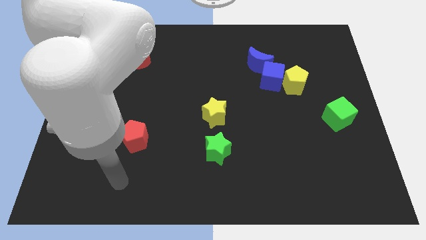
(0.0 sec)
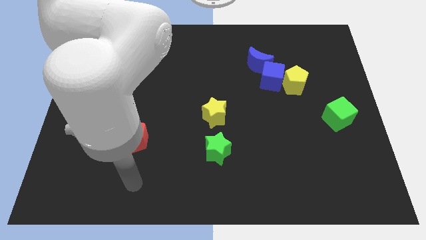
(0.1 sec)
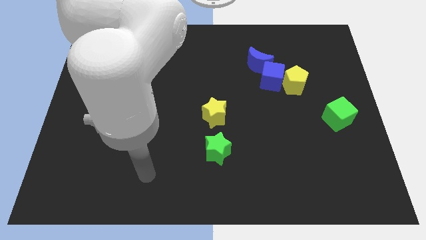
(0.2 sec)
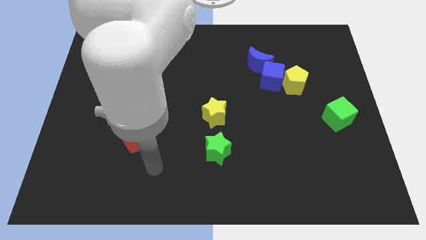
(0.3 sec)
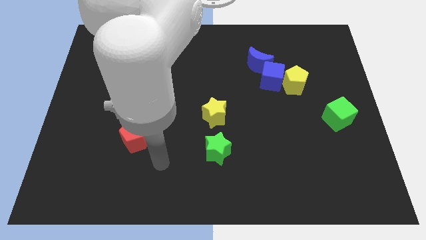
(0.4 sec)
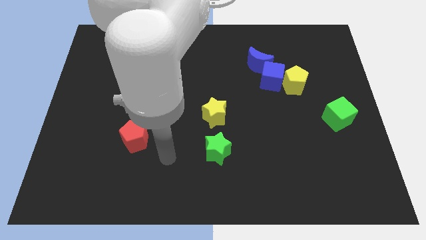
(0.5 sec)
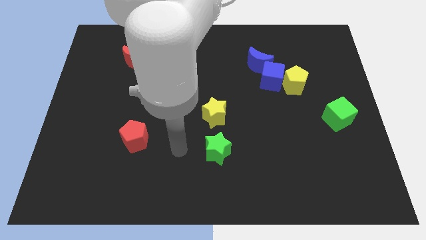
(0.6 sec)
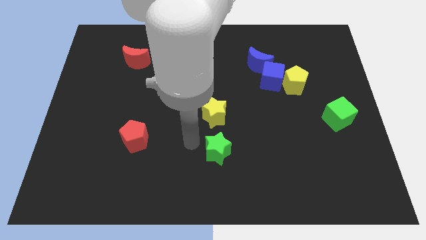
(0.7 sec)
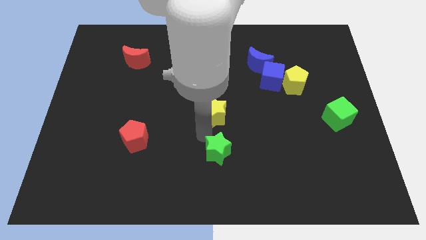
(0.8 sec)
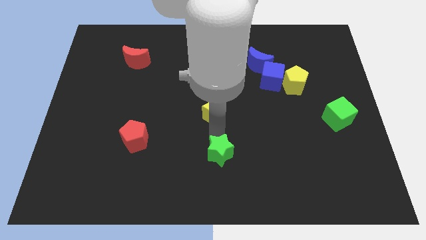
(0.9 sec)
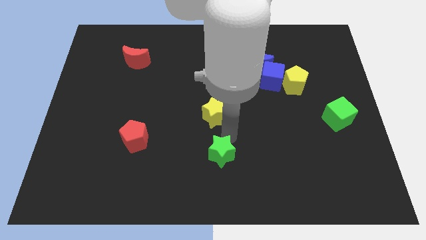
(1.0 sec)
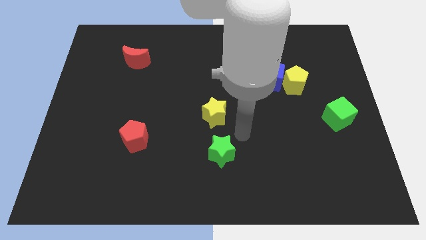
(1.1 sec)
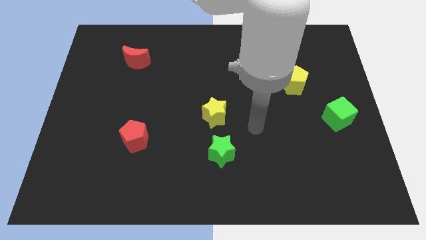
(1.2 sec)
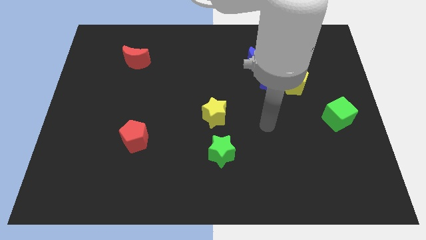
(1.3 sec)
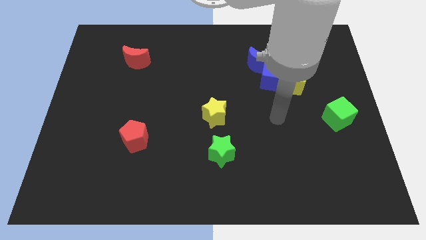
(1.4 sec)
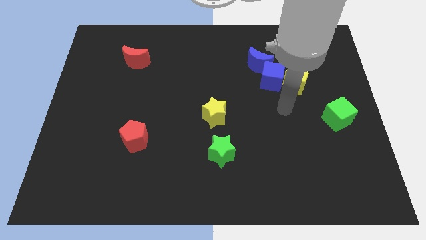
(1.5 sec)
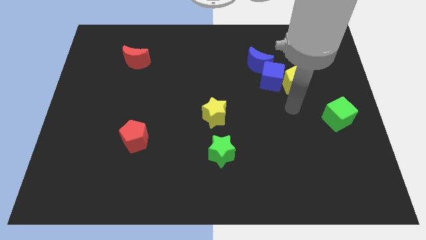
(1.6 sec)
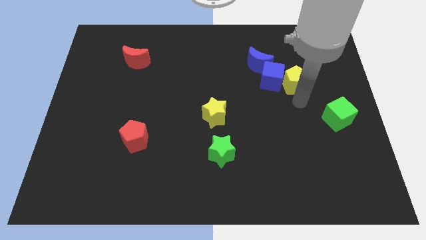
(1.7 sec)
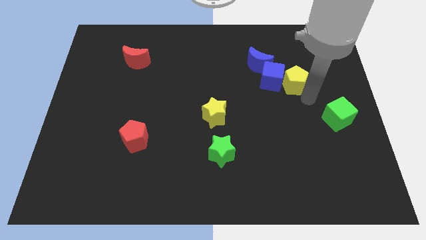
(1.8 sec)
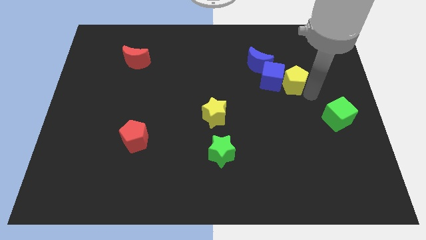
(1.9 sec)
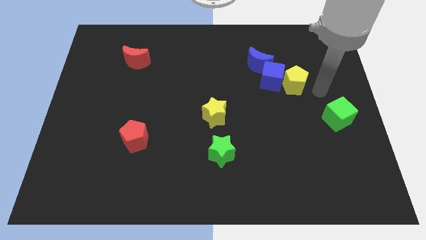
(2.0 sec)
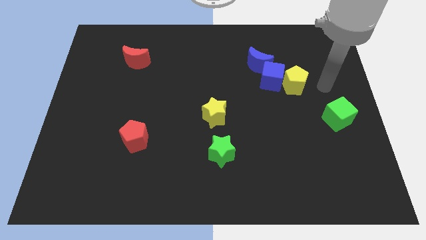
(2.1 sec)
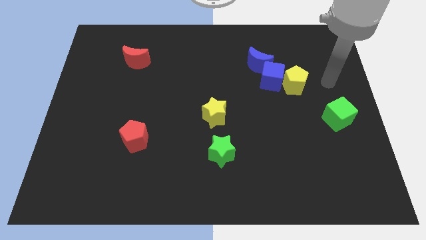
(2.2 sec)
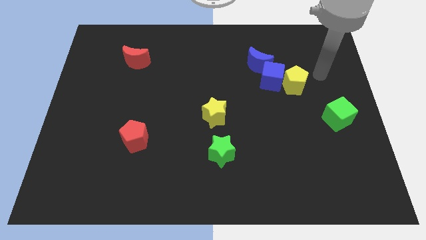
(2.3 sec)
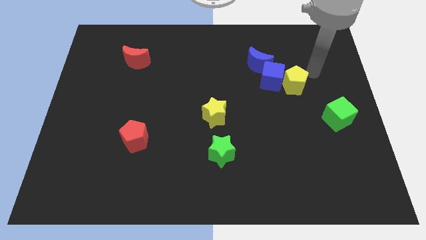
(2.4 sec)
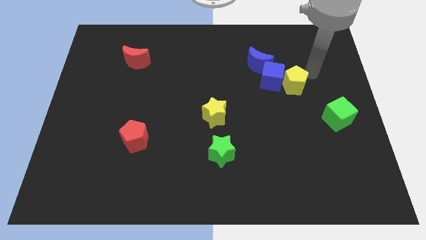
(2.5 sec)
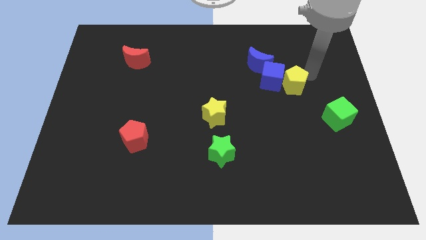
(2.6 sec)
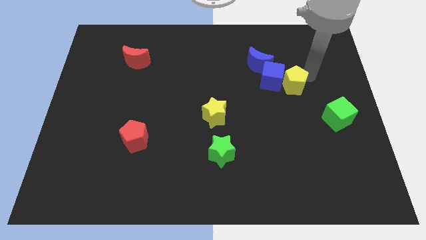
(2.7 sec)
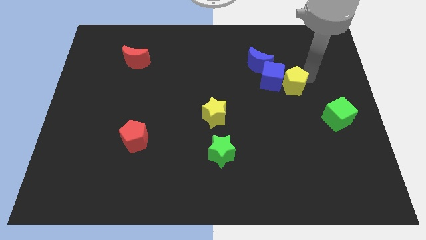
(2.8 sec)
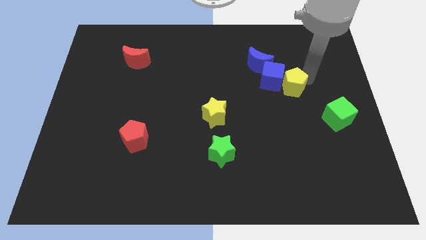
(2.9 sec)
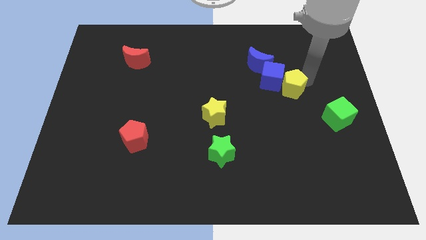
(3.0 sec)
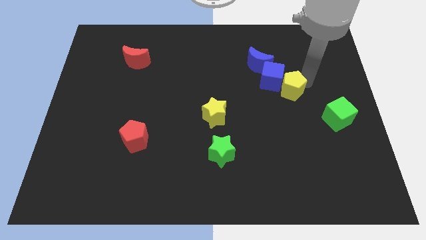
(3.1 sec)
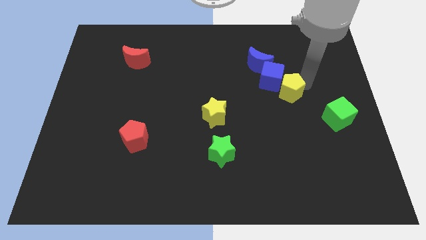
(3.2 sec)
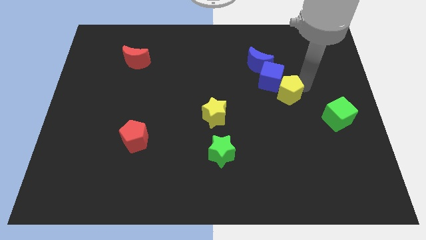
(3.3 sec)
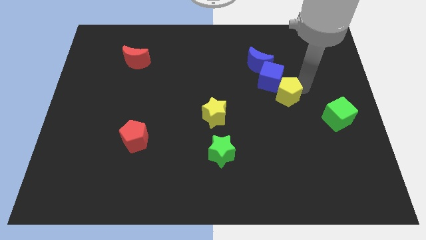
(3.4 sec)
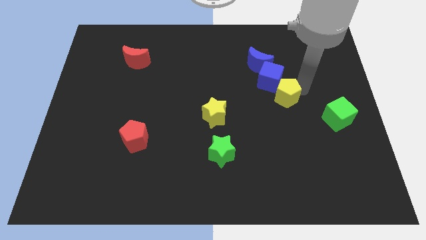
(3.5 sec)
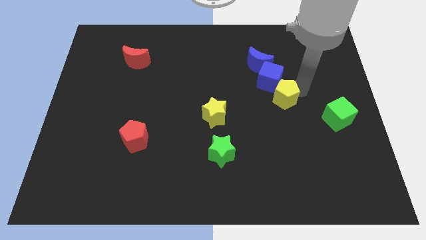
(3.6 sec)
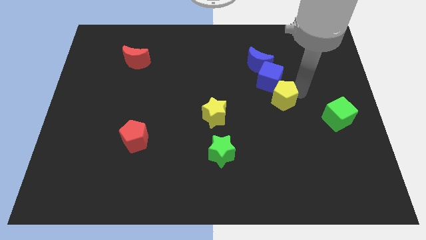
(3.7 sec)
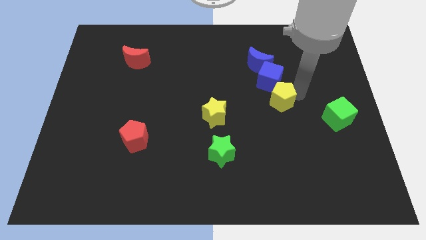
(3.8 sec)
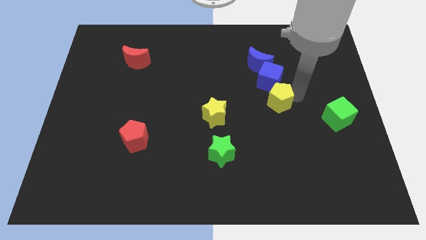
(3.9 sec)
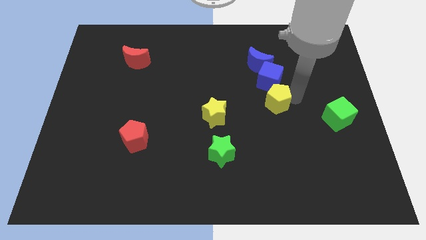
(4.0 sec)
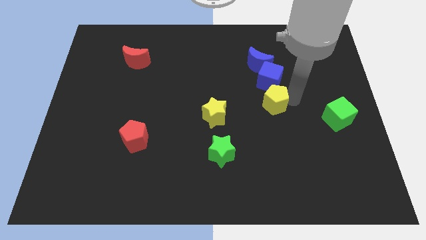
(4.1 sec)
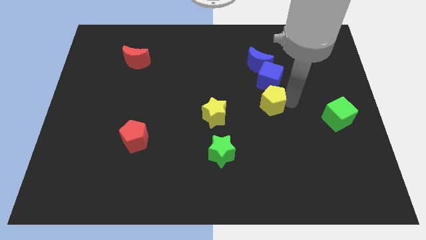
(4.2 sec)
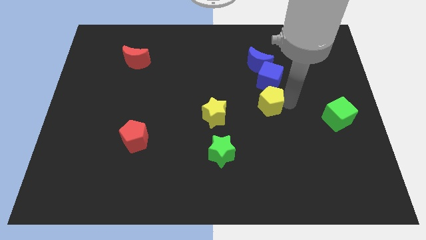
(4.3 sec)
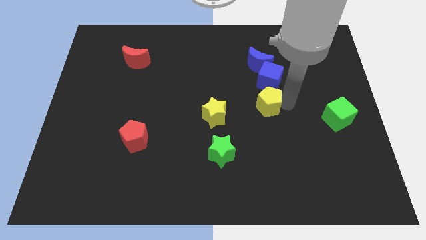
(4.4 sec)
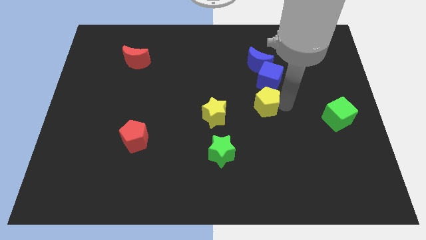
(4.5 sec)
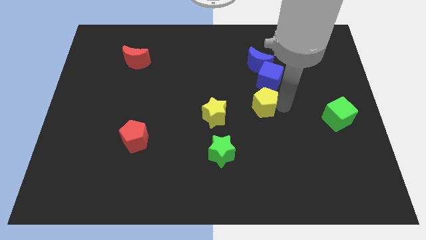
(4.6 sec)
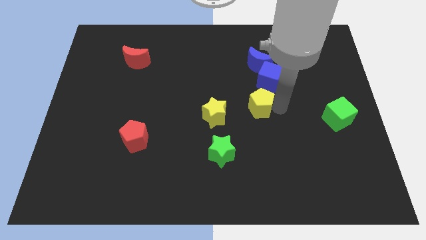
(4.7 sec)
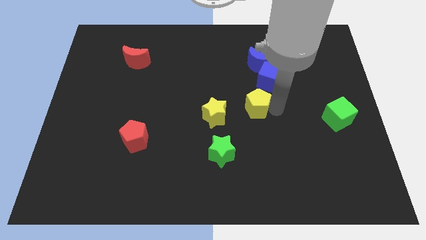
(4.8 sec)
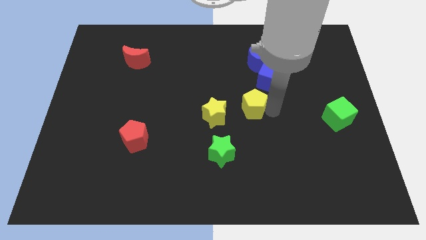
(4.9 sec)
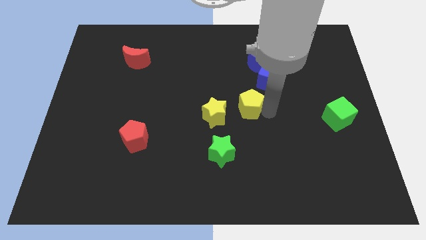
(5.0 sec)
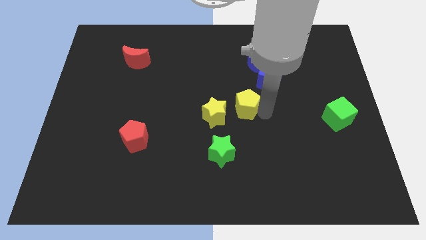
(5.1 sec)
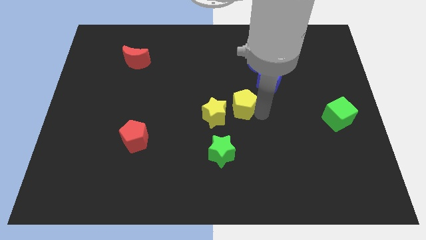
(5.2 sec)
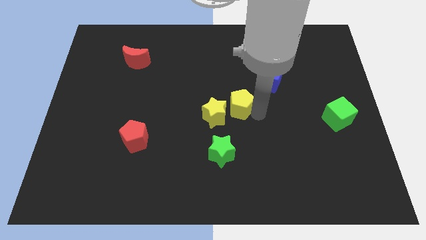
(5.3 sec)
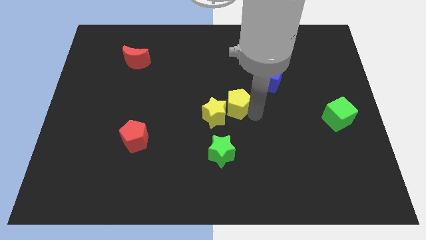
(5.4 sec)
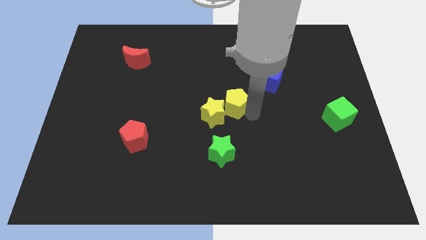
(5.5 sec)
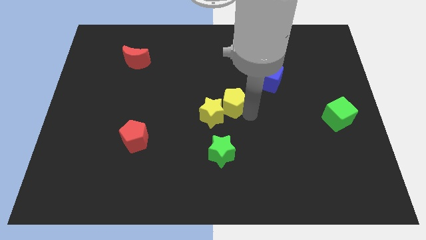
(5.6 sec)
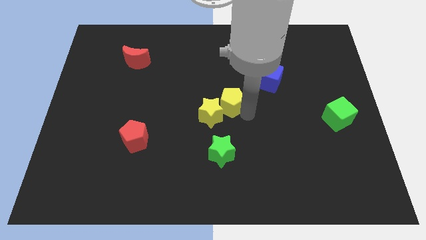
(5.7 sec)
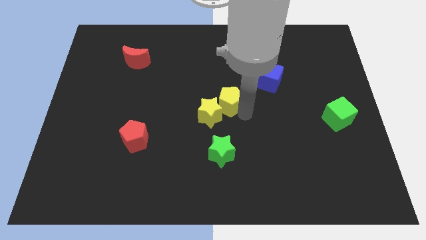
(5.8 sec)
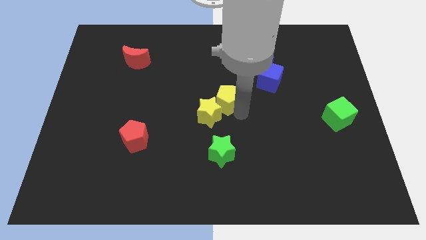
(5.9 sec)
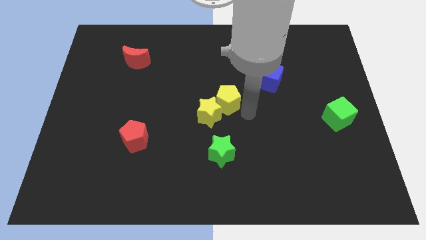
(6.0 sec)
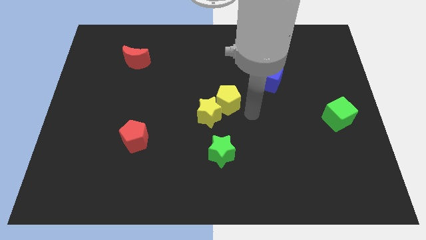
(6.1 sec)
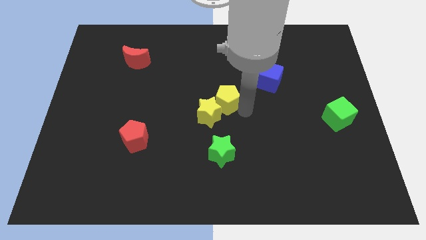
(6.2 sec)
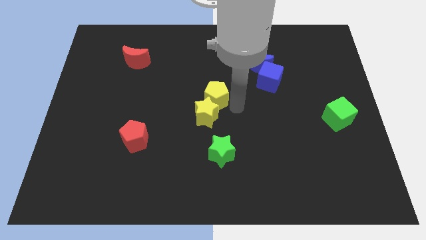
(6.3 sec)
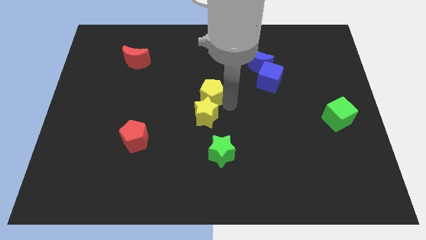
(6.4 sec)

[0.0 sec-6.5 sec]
slide the yellow pentagon to the left

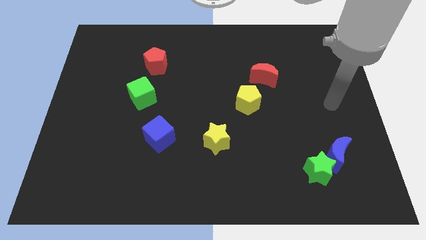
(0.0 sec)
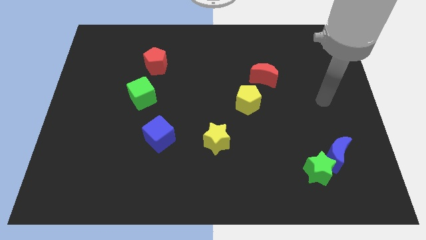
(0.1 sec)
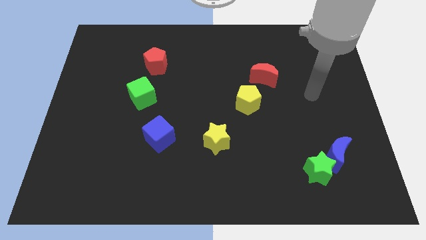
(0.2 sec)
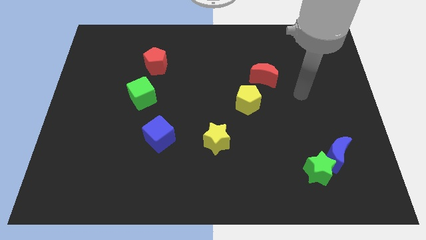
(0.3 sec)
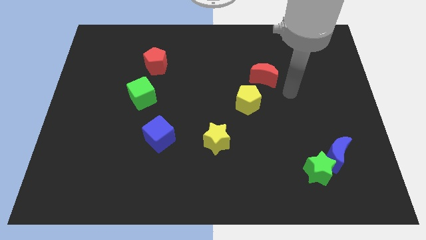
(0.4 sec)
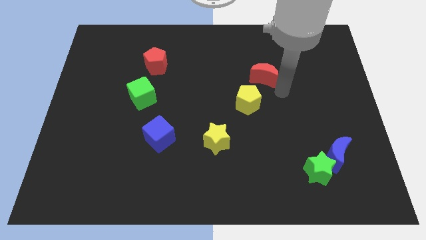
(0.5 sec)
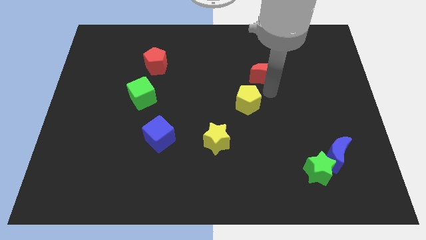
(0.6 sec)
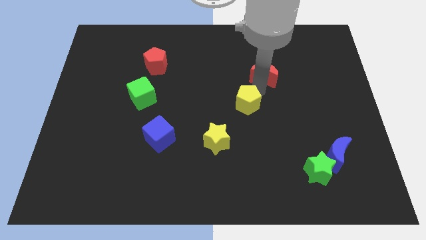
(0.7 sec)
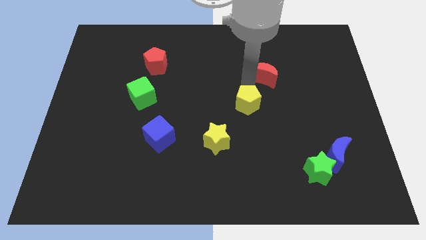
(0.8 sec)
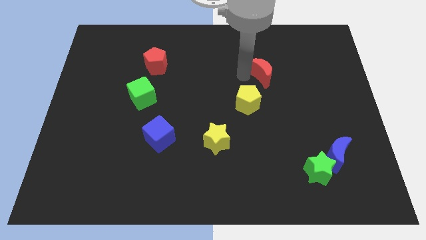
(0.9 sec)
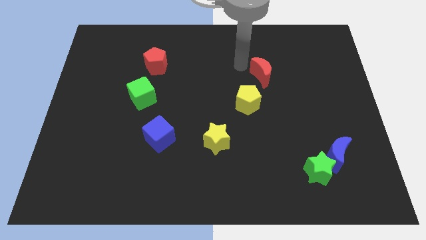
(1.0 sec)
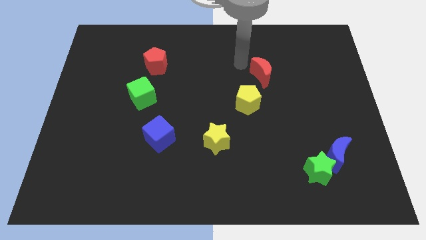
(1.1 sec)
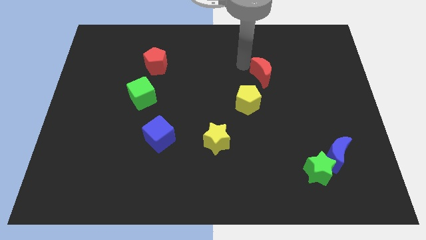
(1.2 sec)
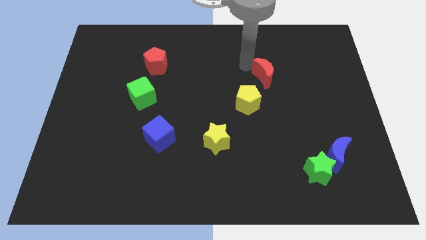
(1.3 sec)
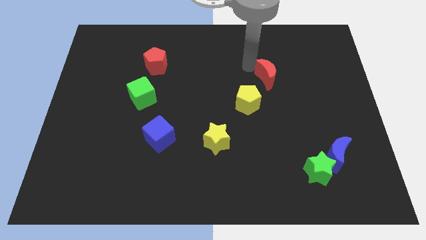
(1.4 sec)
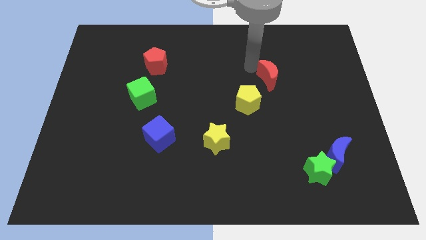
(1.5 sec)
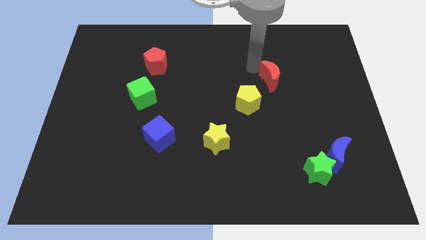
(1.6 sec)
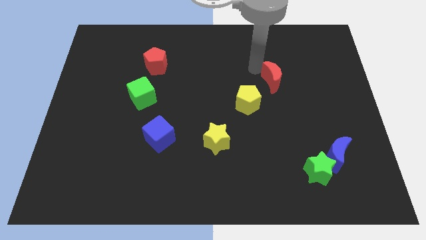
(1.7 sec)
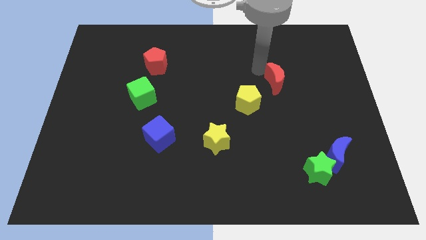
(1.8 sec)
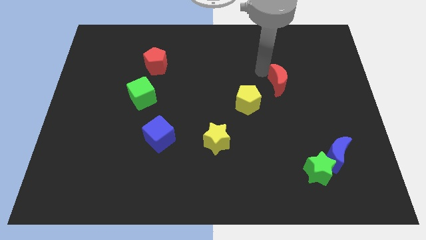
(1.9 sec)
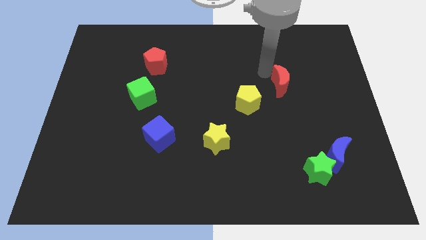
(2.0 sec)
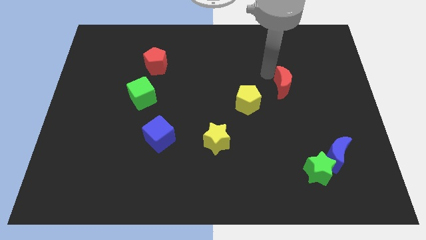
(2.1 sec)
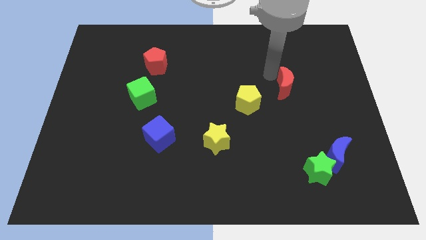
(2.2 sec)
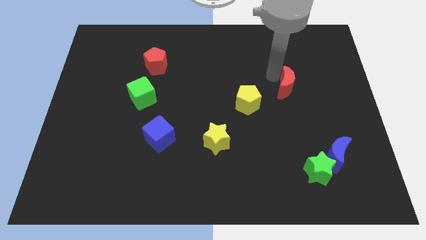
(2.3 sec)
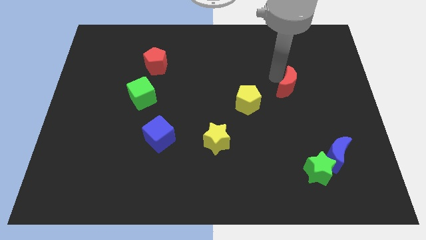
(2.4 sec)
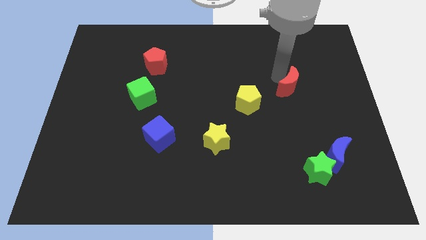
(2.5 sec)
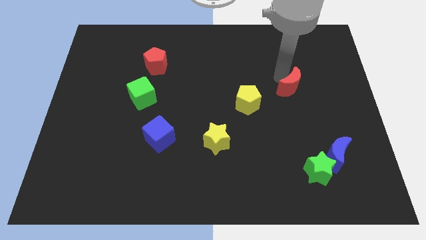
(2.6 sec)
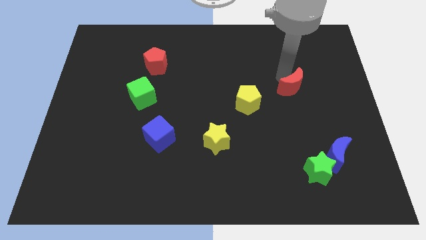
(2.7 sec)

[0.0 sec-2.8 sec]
push the red moon slightly downwards and to the right
